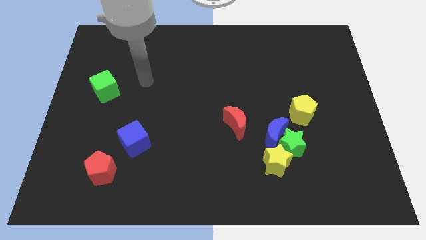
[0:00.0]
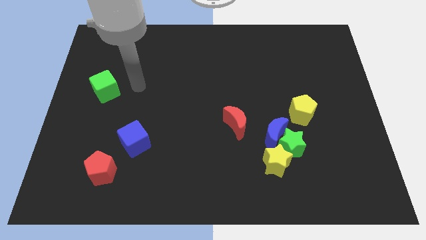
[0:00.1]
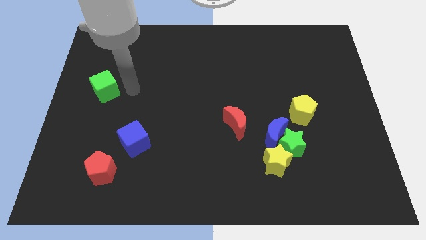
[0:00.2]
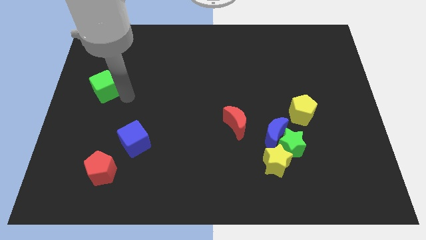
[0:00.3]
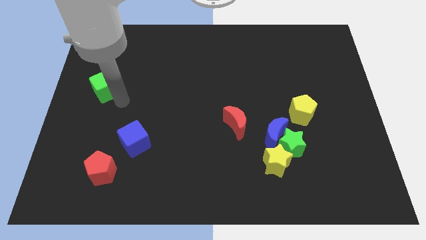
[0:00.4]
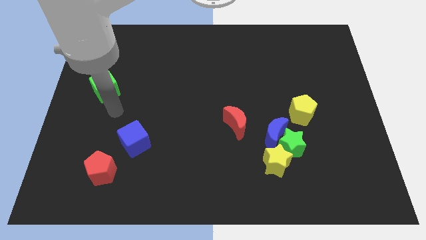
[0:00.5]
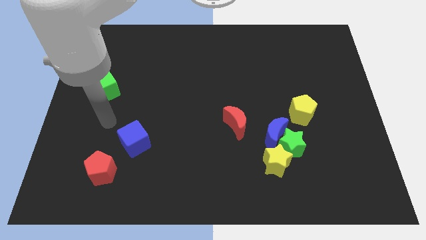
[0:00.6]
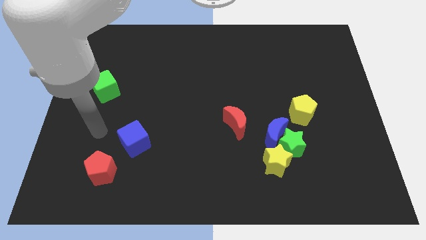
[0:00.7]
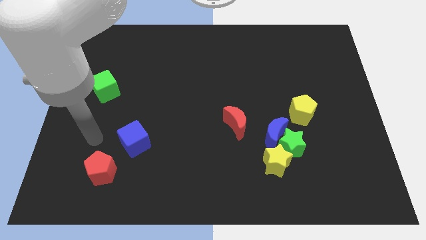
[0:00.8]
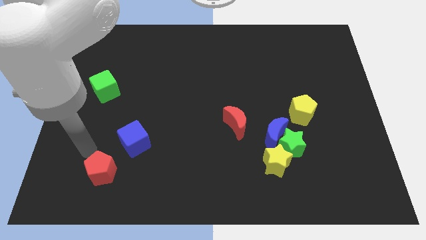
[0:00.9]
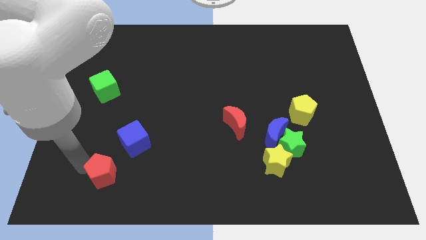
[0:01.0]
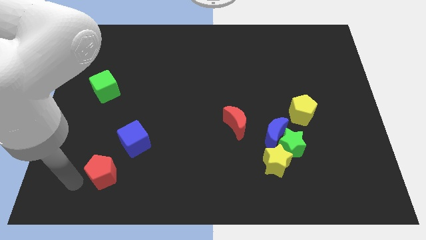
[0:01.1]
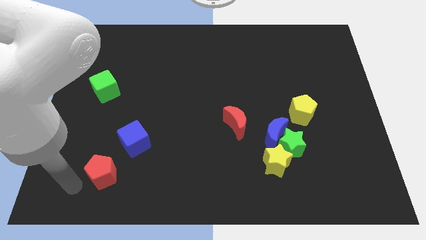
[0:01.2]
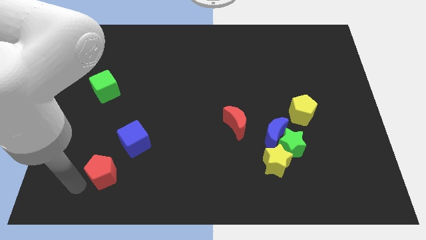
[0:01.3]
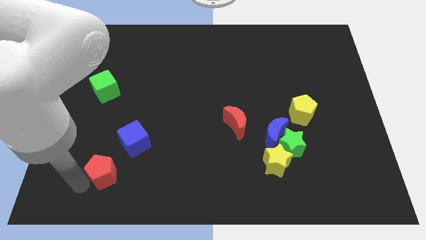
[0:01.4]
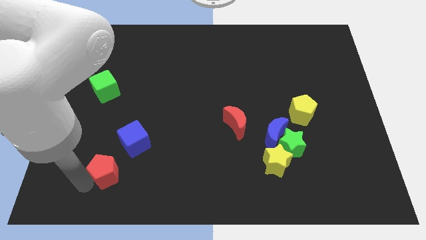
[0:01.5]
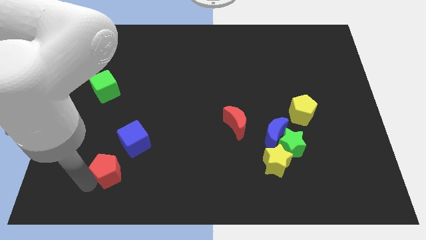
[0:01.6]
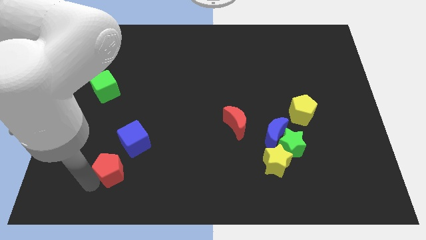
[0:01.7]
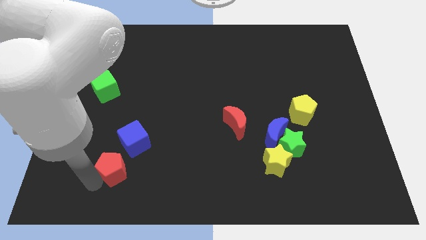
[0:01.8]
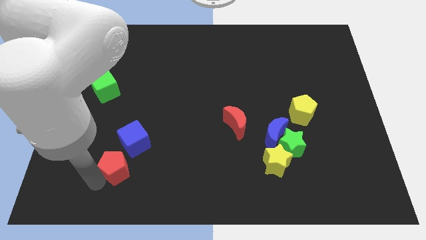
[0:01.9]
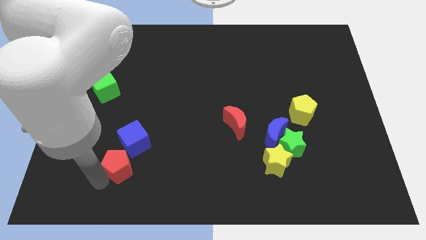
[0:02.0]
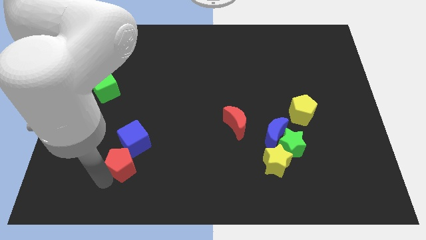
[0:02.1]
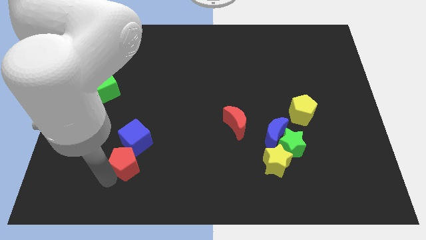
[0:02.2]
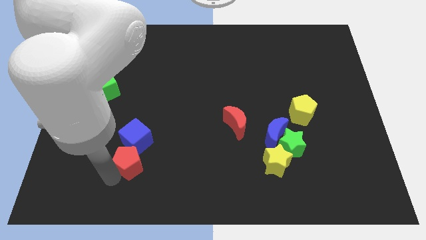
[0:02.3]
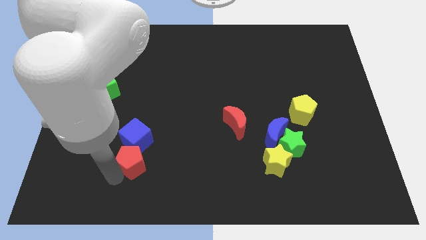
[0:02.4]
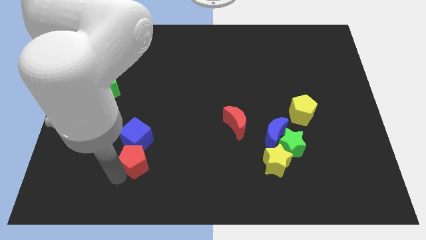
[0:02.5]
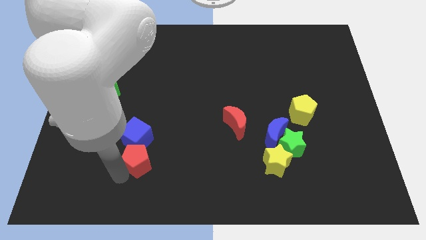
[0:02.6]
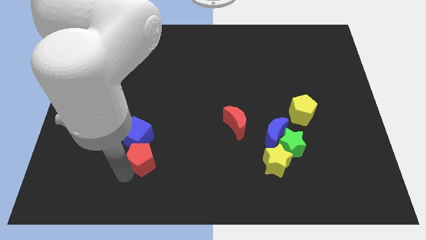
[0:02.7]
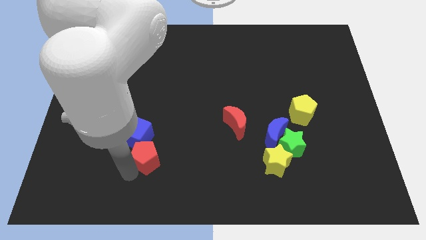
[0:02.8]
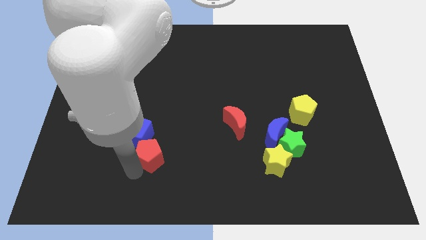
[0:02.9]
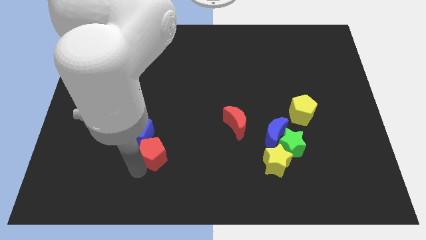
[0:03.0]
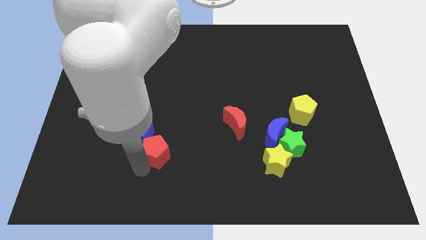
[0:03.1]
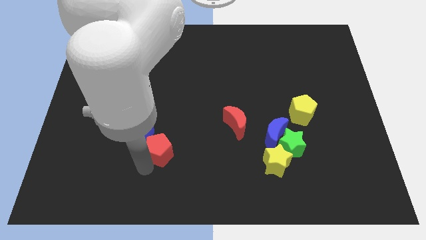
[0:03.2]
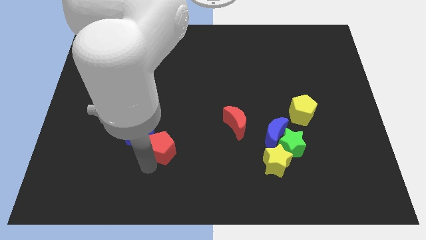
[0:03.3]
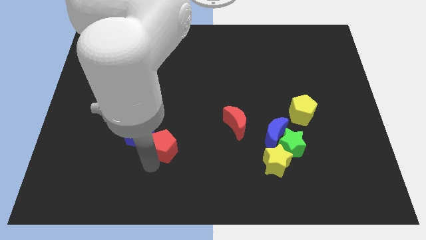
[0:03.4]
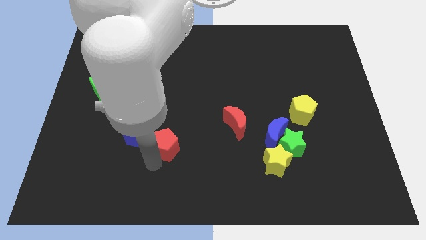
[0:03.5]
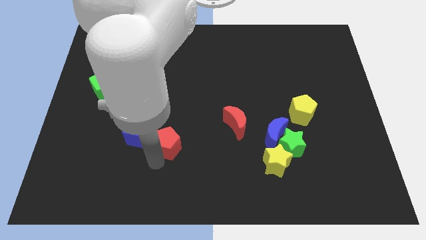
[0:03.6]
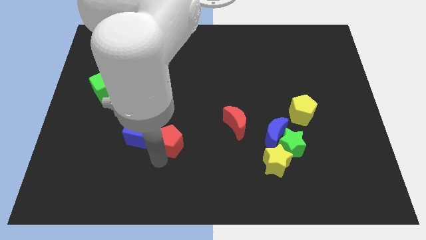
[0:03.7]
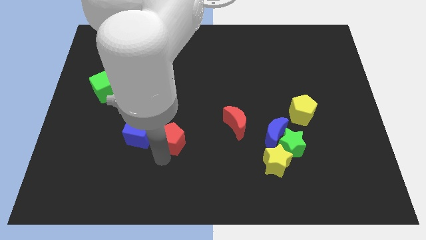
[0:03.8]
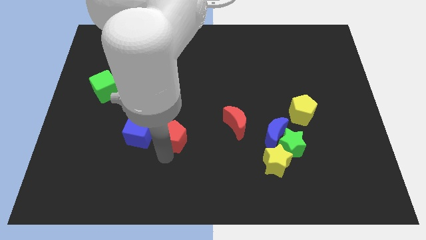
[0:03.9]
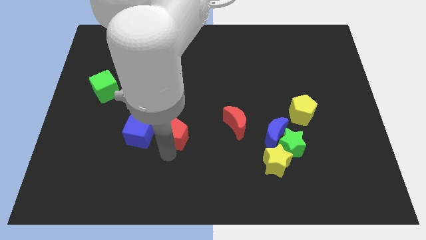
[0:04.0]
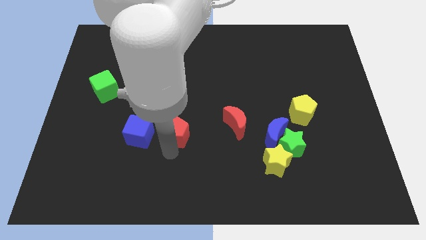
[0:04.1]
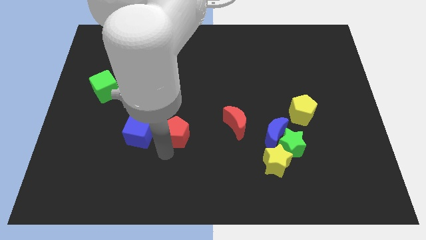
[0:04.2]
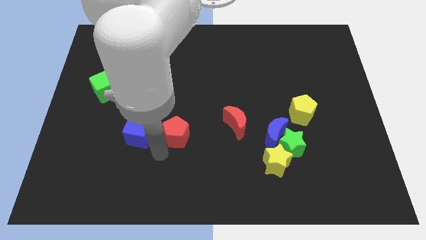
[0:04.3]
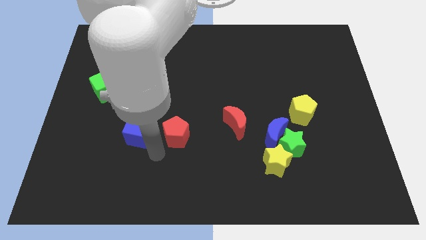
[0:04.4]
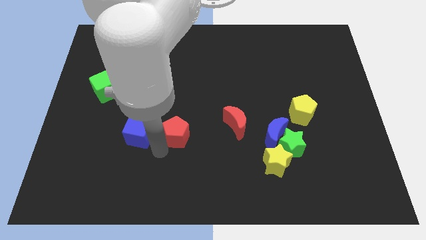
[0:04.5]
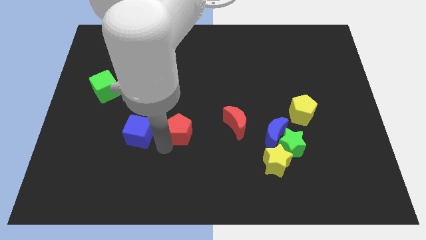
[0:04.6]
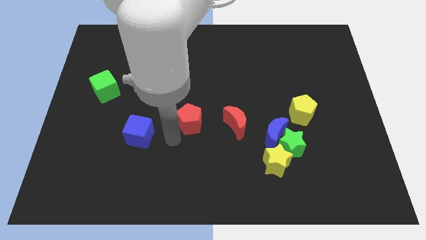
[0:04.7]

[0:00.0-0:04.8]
push the red pentagon up and to the right diagonally

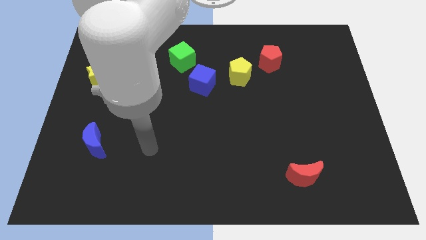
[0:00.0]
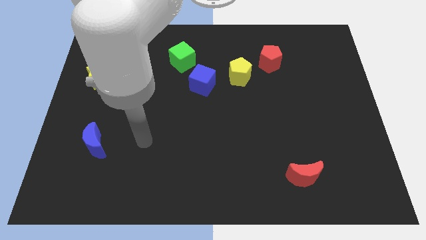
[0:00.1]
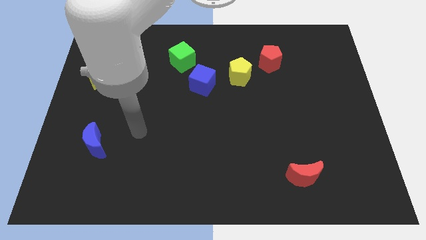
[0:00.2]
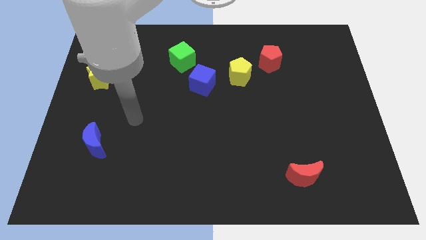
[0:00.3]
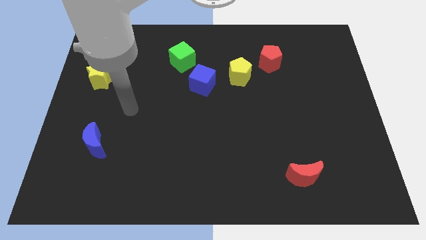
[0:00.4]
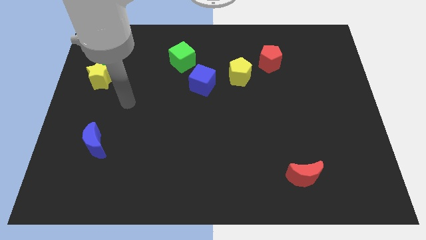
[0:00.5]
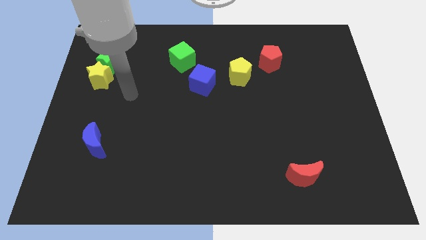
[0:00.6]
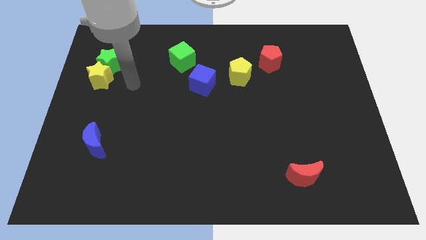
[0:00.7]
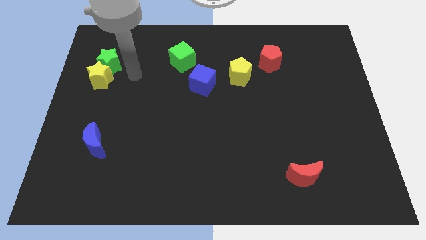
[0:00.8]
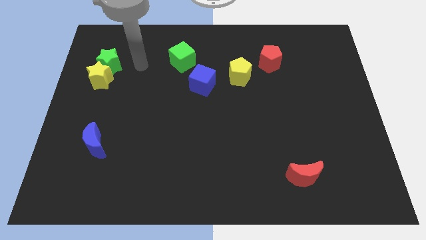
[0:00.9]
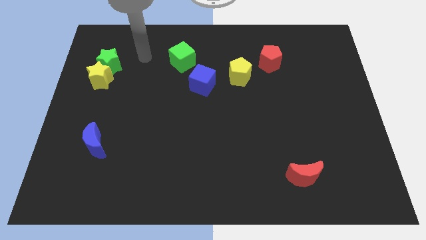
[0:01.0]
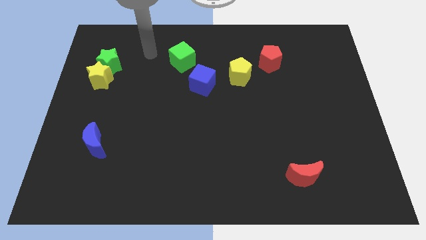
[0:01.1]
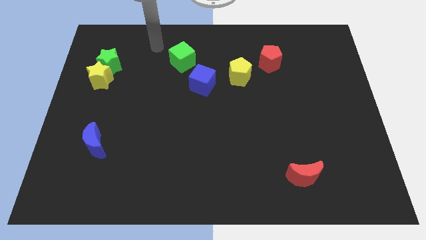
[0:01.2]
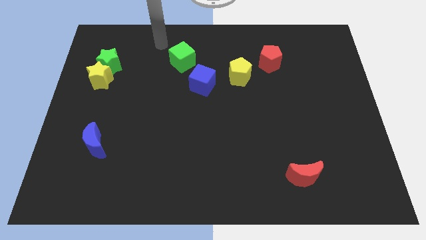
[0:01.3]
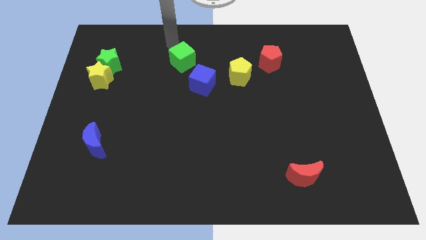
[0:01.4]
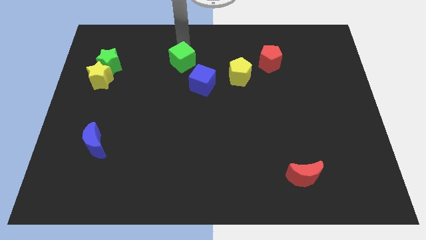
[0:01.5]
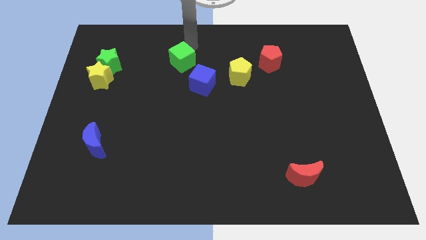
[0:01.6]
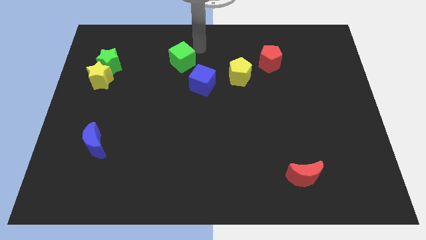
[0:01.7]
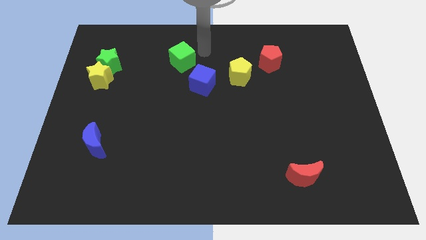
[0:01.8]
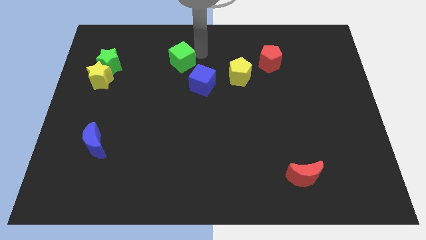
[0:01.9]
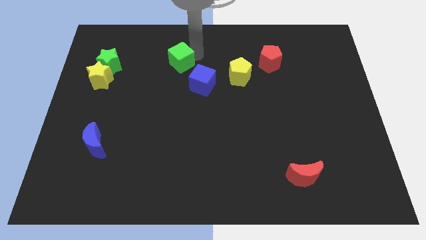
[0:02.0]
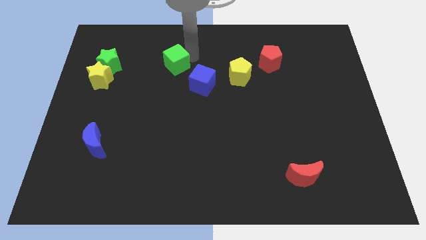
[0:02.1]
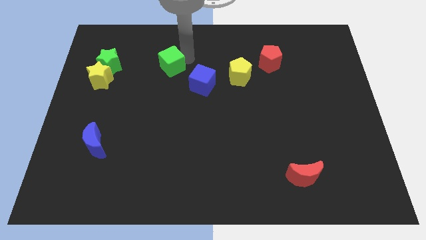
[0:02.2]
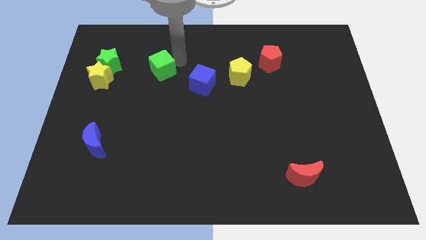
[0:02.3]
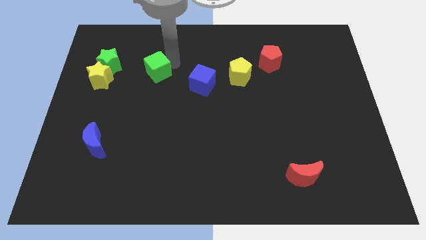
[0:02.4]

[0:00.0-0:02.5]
move the green cube down and then left somewhat

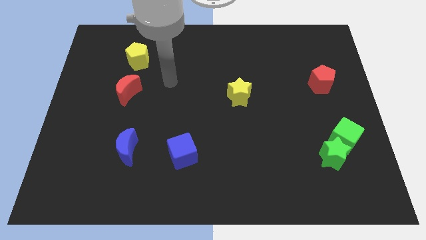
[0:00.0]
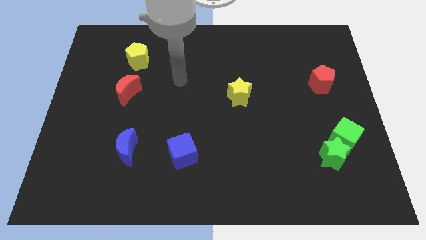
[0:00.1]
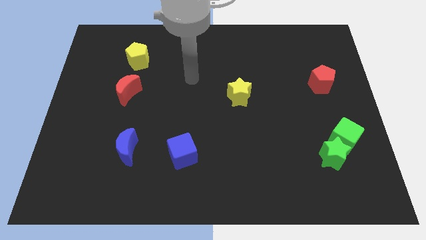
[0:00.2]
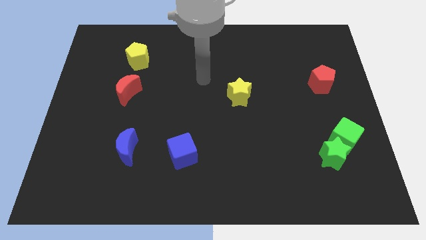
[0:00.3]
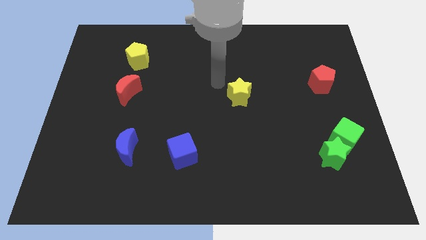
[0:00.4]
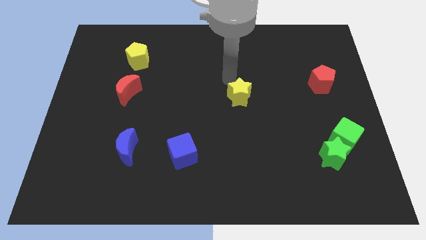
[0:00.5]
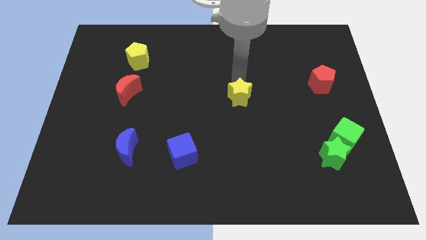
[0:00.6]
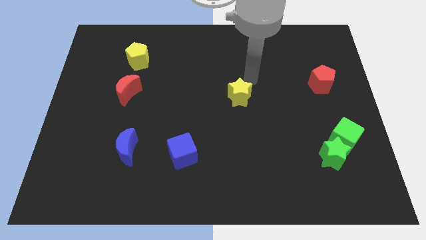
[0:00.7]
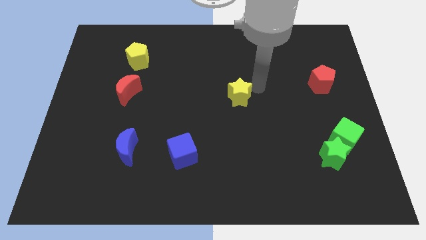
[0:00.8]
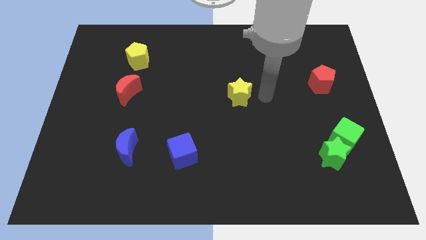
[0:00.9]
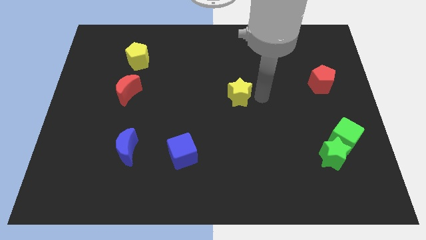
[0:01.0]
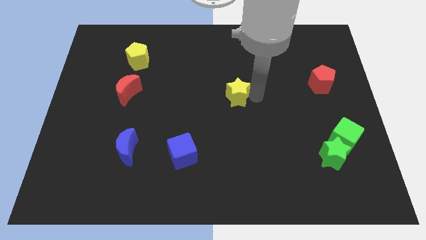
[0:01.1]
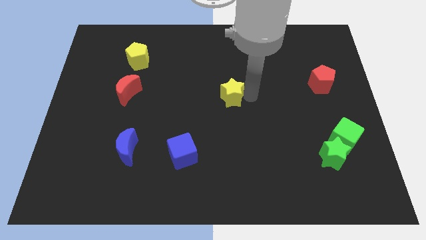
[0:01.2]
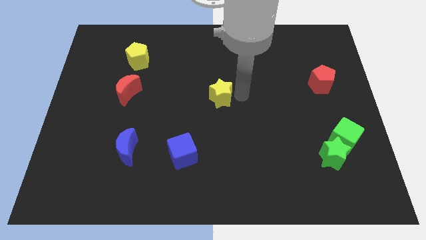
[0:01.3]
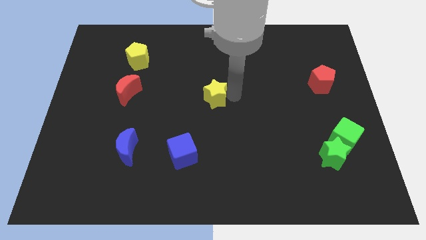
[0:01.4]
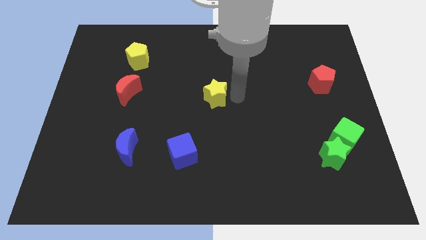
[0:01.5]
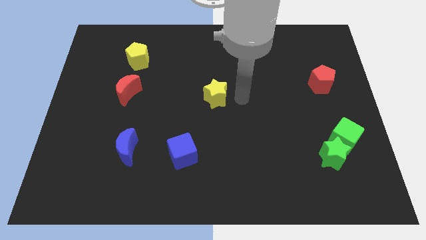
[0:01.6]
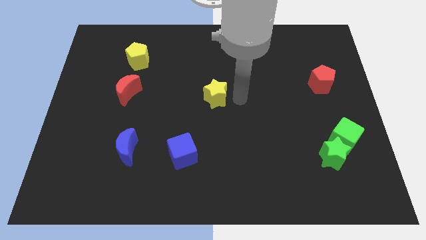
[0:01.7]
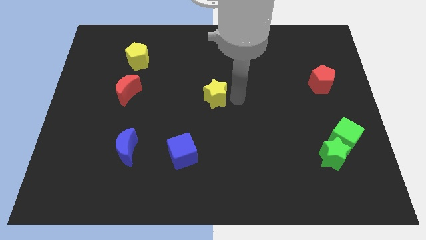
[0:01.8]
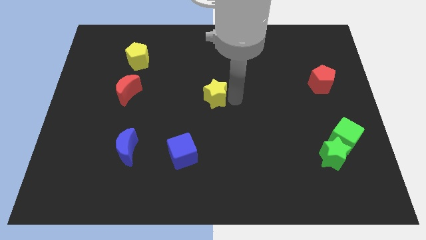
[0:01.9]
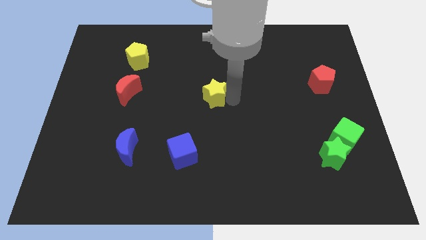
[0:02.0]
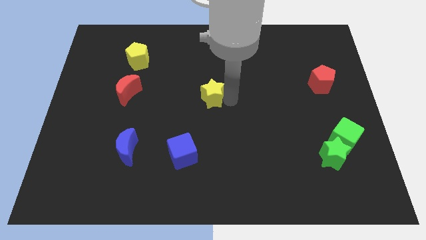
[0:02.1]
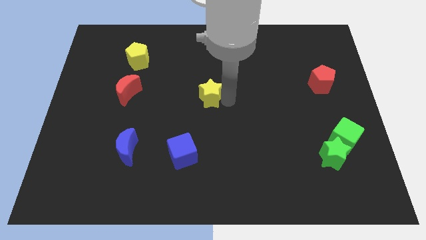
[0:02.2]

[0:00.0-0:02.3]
slightly move the yellow star left
